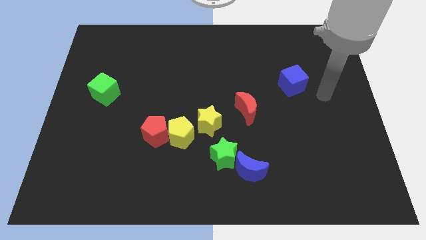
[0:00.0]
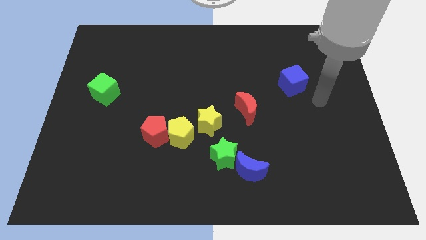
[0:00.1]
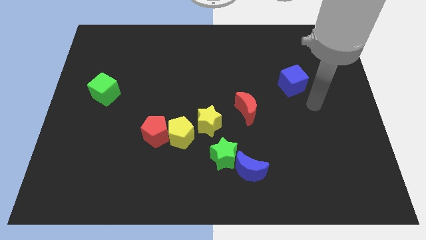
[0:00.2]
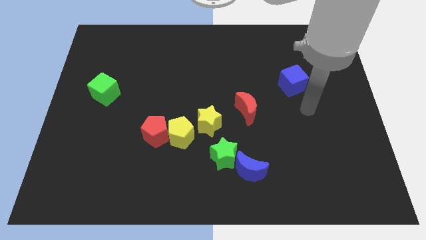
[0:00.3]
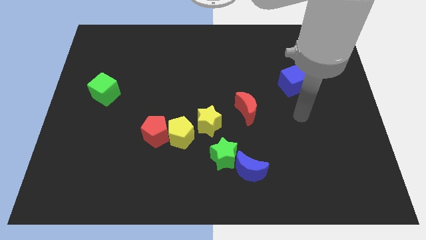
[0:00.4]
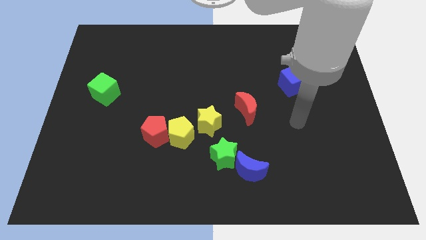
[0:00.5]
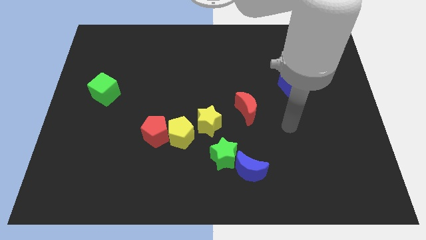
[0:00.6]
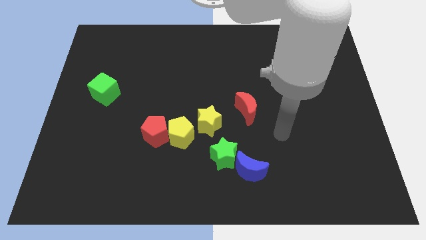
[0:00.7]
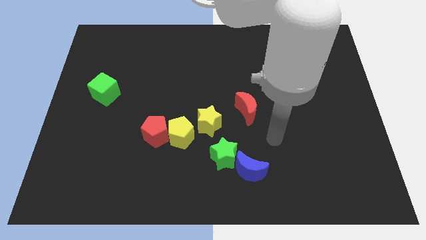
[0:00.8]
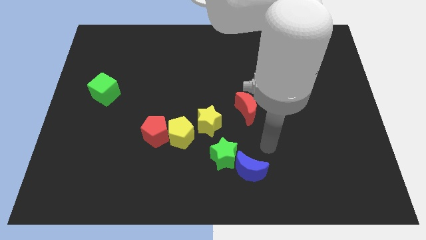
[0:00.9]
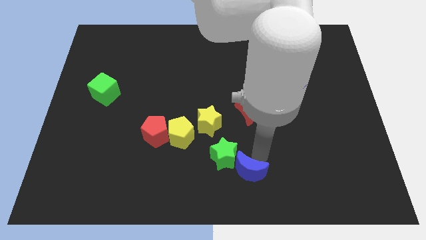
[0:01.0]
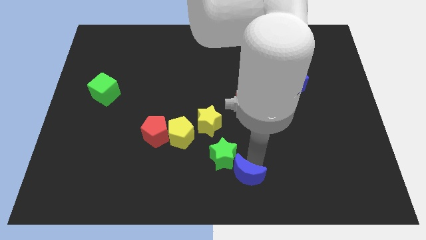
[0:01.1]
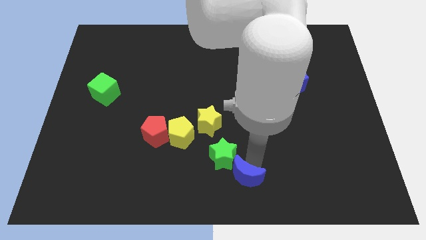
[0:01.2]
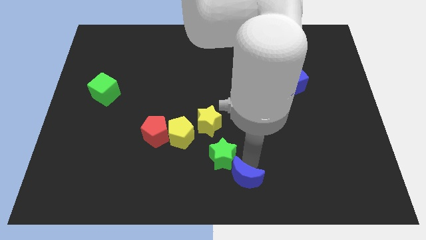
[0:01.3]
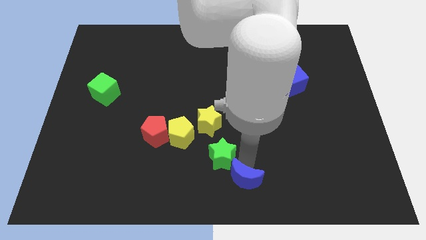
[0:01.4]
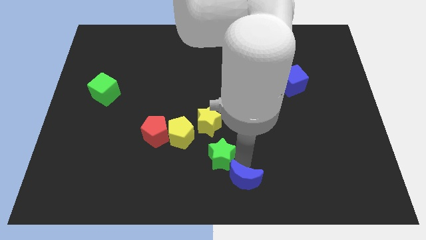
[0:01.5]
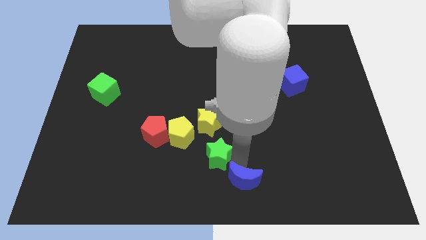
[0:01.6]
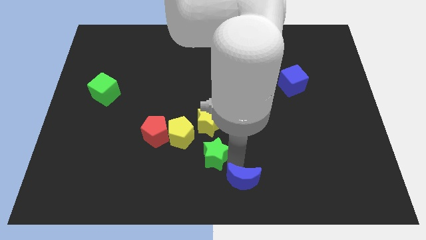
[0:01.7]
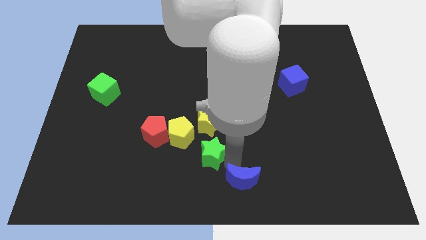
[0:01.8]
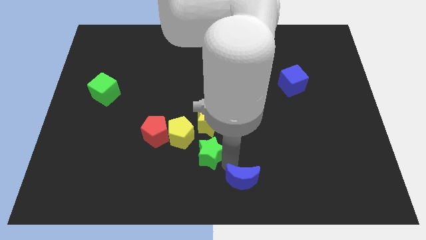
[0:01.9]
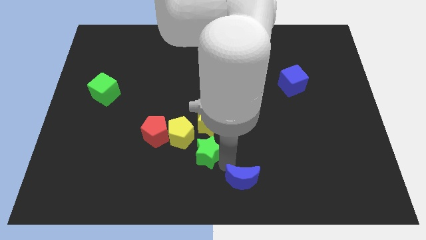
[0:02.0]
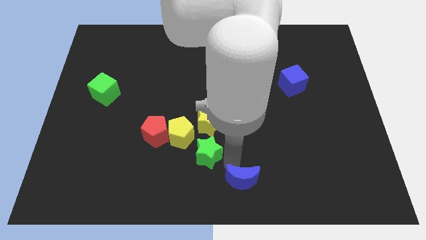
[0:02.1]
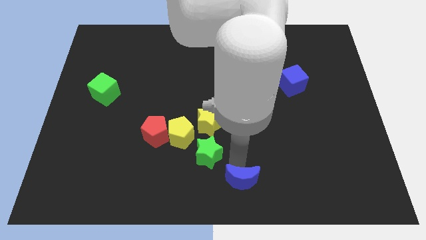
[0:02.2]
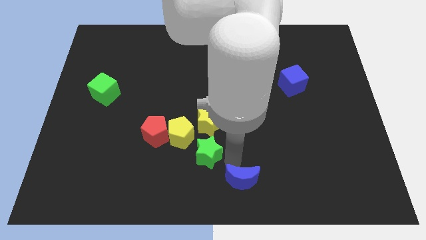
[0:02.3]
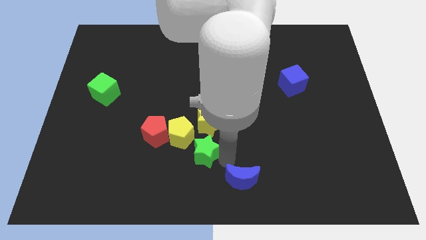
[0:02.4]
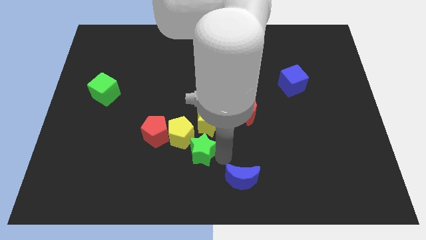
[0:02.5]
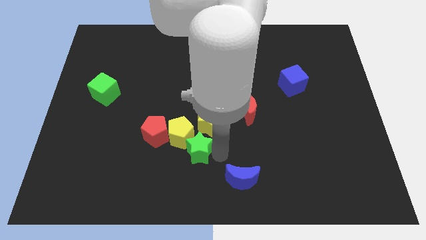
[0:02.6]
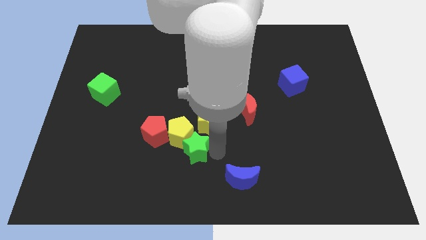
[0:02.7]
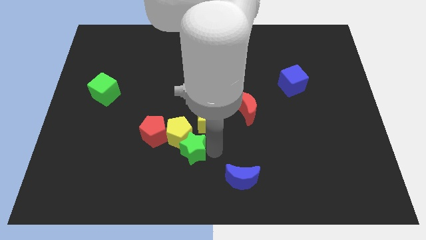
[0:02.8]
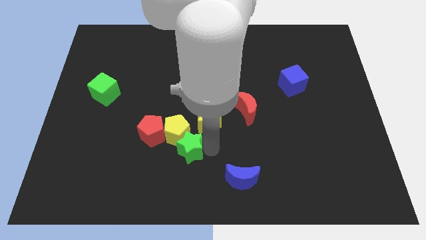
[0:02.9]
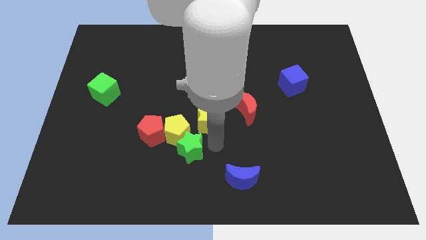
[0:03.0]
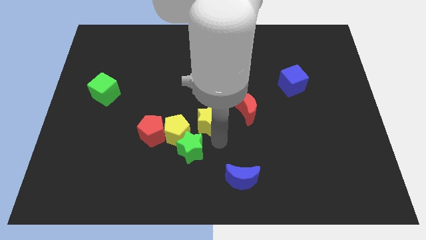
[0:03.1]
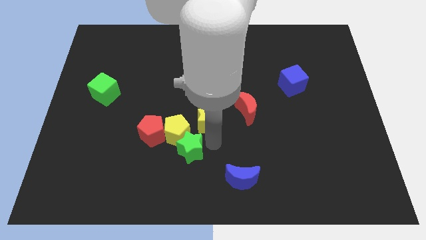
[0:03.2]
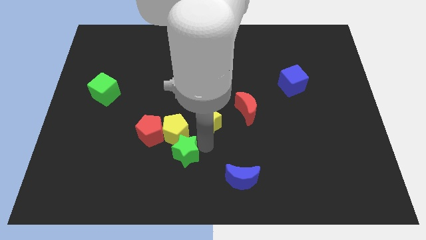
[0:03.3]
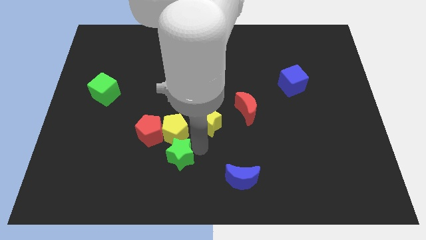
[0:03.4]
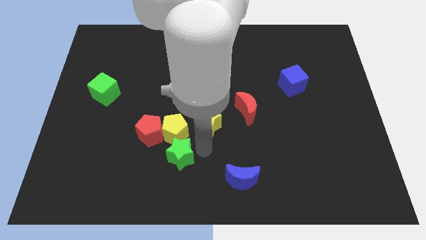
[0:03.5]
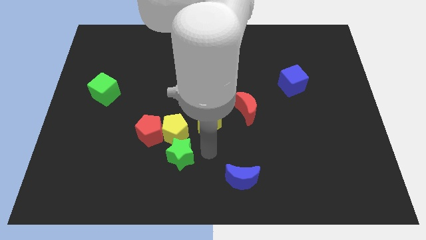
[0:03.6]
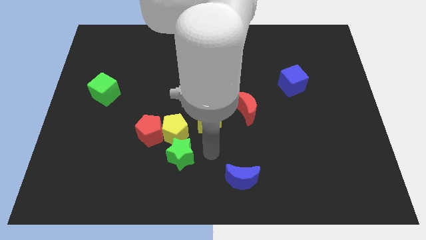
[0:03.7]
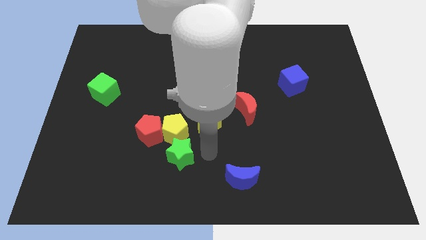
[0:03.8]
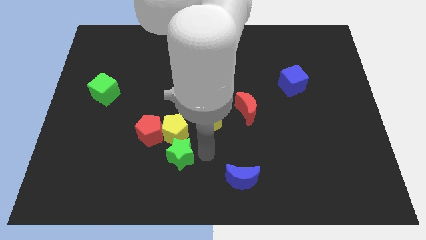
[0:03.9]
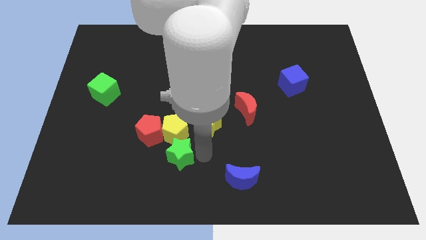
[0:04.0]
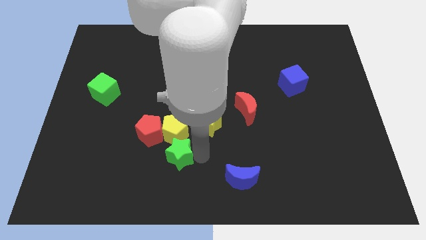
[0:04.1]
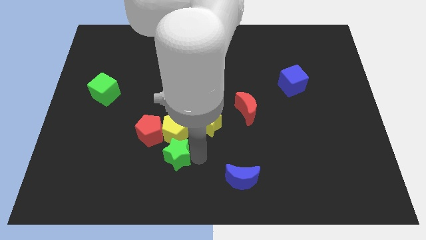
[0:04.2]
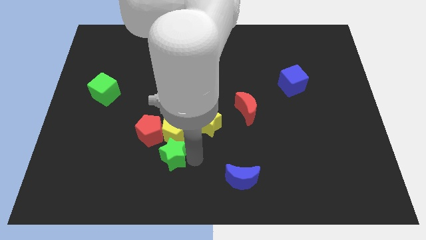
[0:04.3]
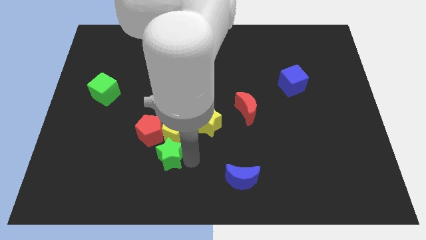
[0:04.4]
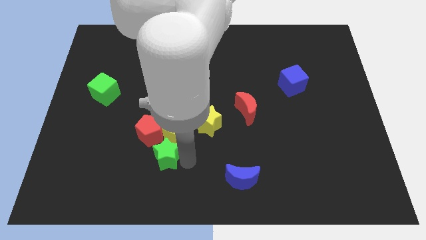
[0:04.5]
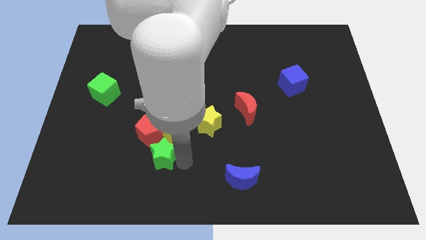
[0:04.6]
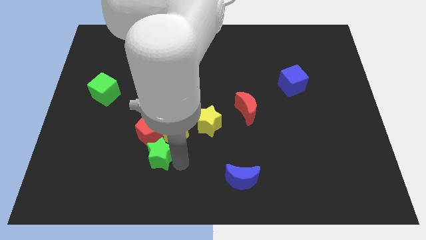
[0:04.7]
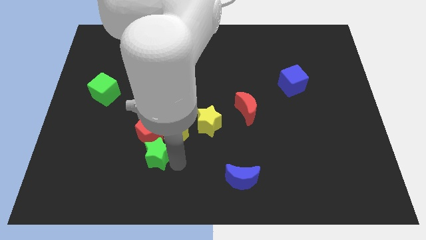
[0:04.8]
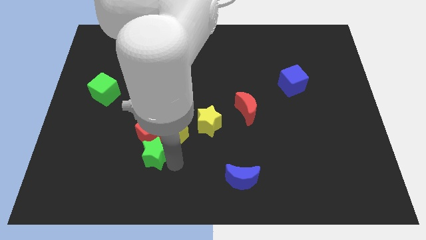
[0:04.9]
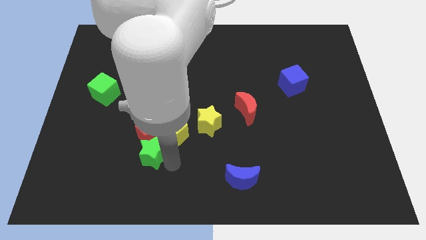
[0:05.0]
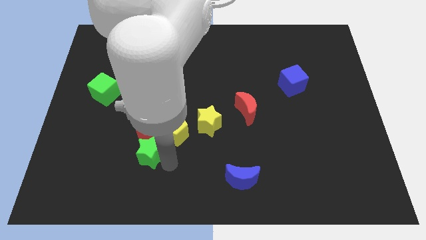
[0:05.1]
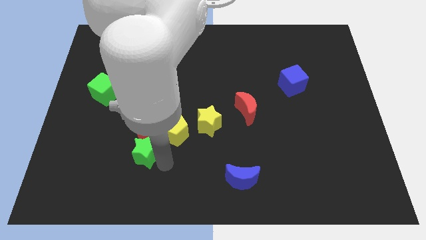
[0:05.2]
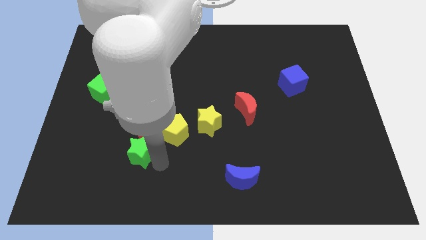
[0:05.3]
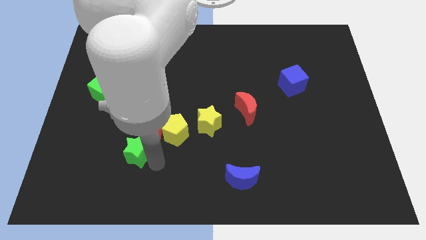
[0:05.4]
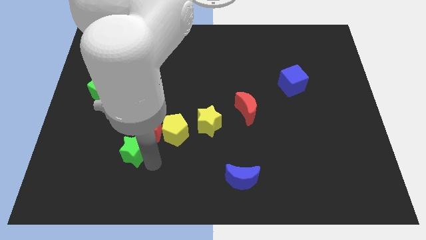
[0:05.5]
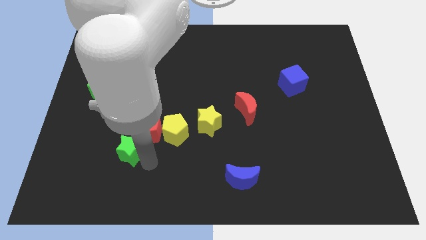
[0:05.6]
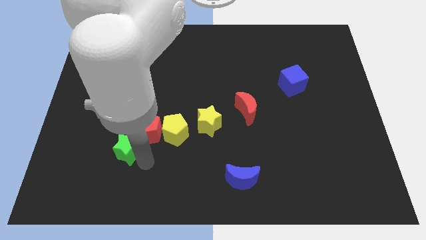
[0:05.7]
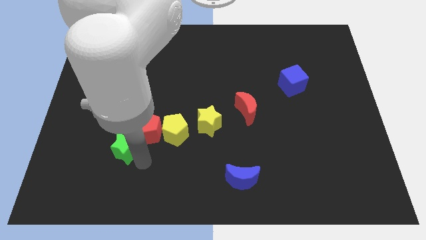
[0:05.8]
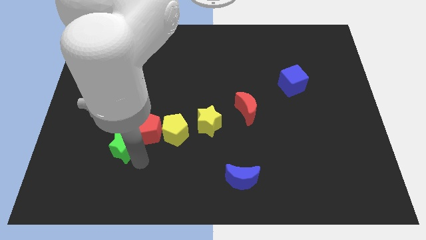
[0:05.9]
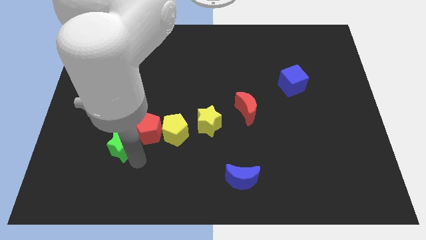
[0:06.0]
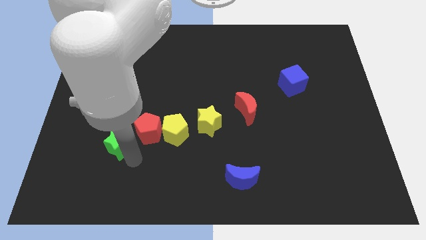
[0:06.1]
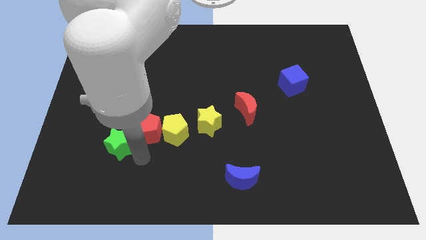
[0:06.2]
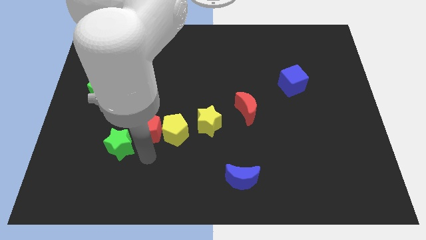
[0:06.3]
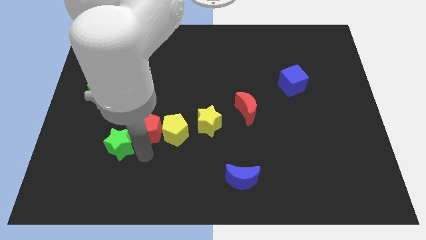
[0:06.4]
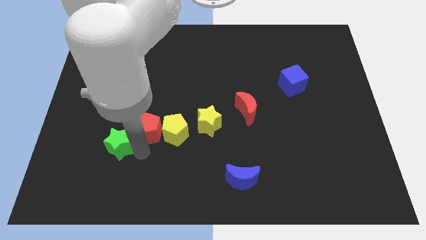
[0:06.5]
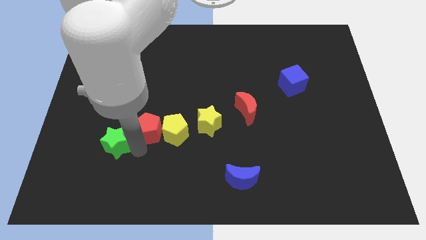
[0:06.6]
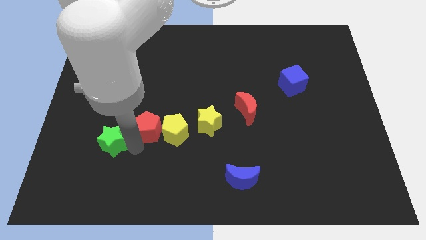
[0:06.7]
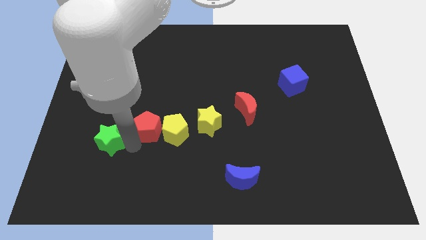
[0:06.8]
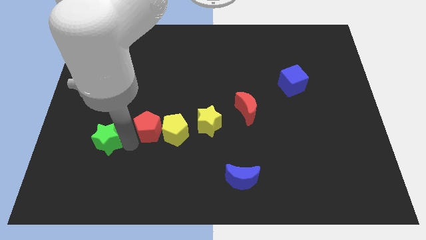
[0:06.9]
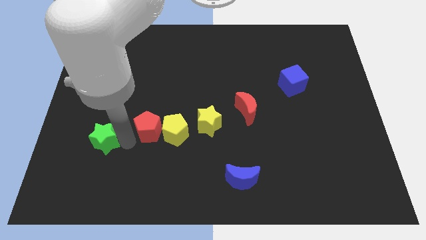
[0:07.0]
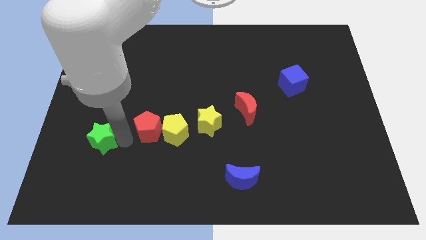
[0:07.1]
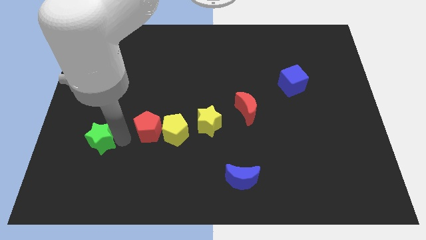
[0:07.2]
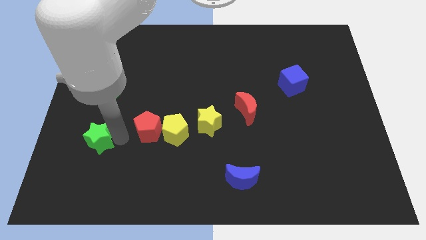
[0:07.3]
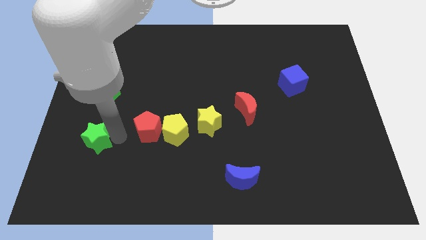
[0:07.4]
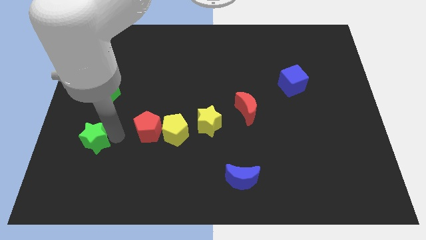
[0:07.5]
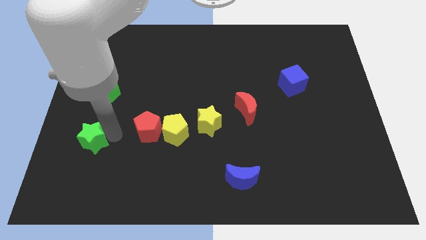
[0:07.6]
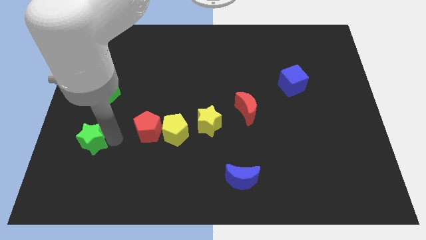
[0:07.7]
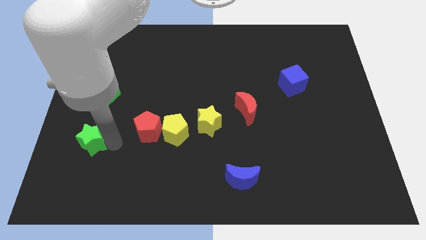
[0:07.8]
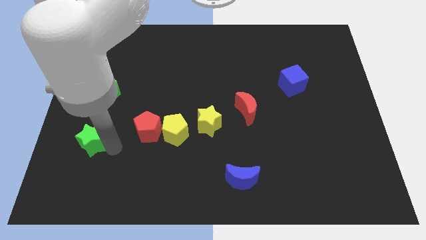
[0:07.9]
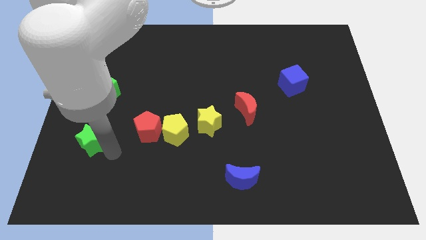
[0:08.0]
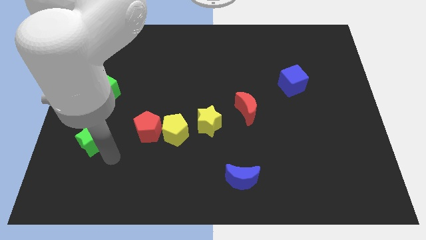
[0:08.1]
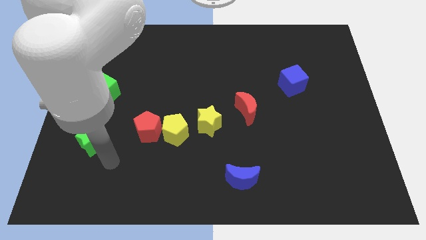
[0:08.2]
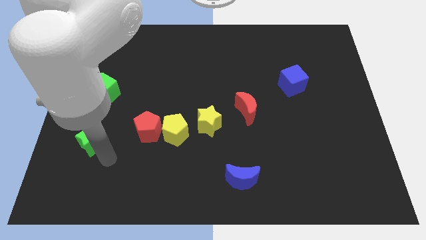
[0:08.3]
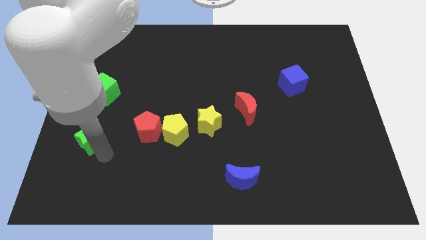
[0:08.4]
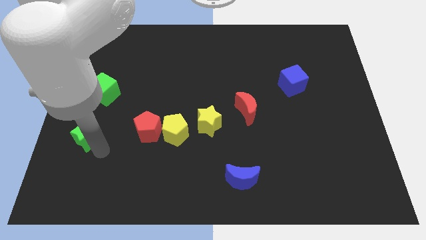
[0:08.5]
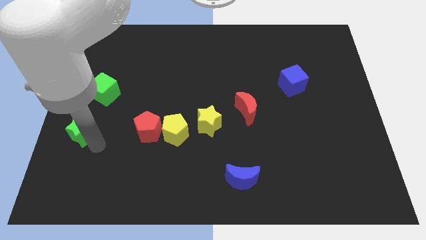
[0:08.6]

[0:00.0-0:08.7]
put the green star to the left side of the board
